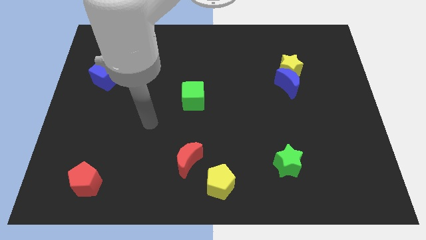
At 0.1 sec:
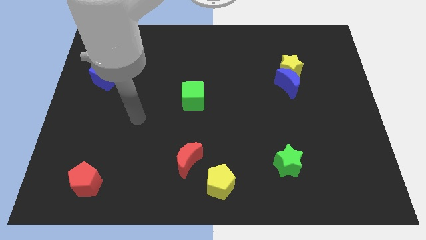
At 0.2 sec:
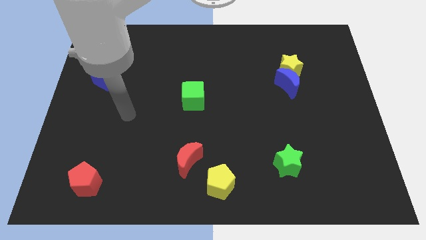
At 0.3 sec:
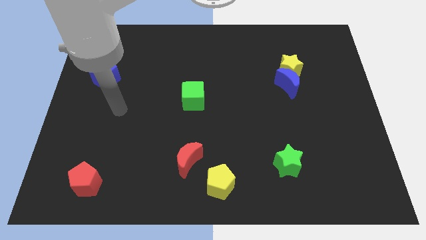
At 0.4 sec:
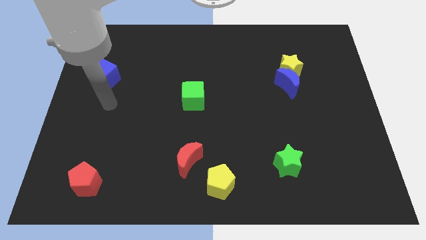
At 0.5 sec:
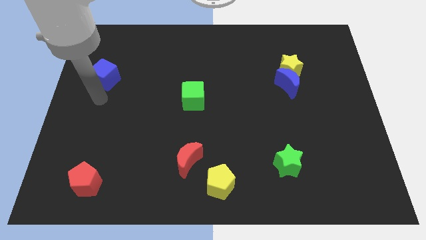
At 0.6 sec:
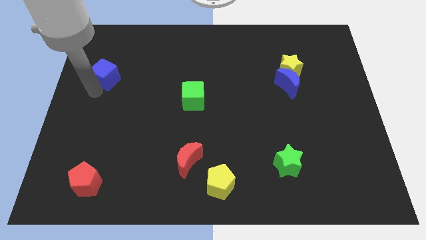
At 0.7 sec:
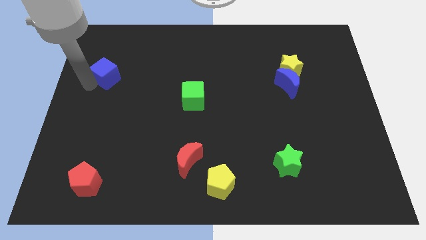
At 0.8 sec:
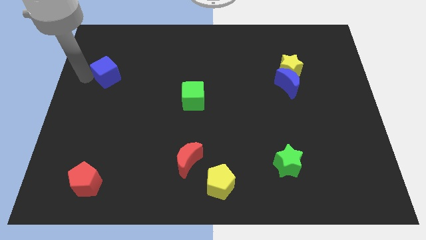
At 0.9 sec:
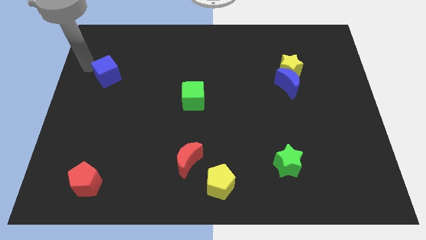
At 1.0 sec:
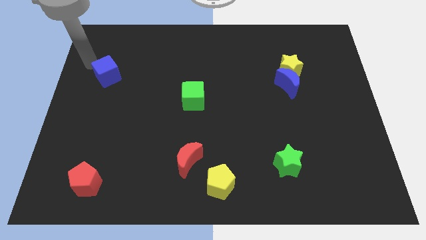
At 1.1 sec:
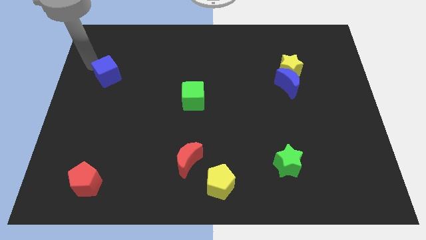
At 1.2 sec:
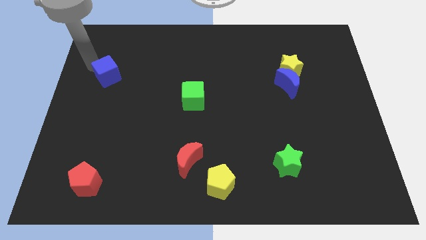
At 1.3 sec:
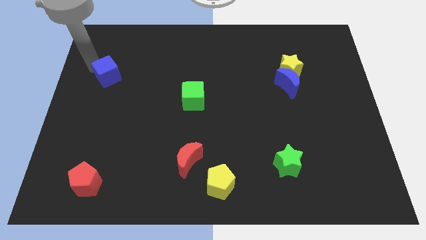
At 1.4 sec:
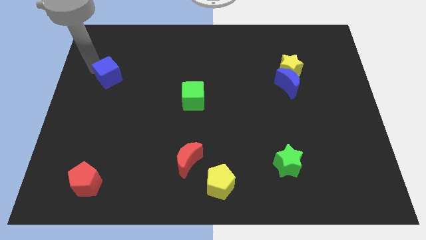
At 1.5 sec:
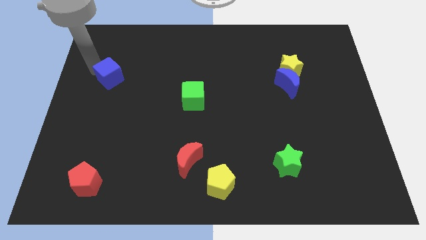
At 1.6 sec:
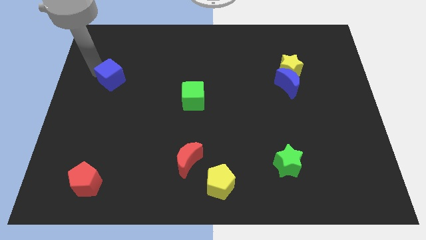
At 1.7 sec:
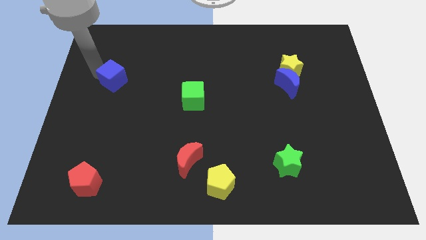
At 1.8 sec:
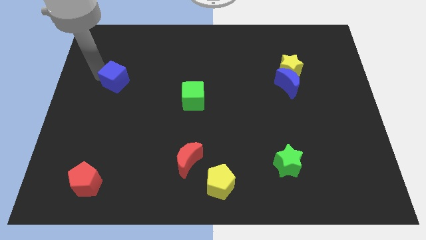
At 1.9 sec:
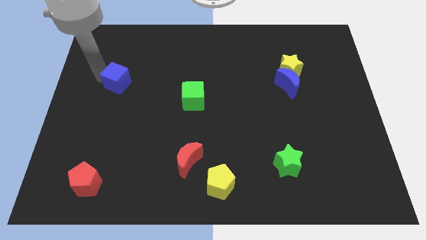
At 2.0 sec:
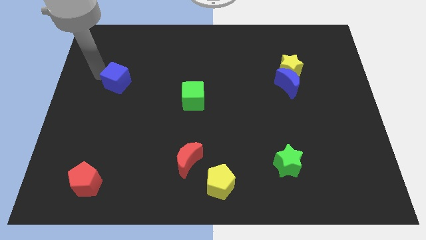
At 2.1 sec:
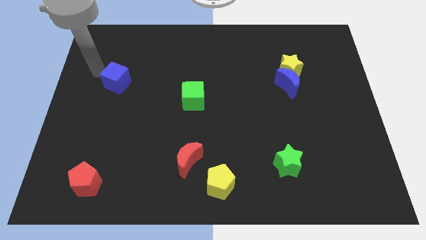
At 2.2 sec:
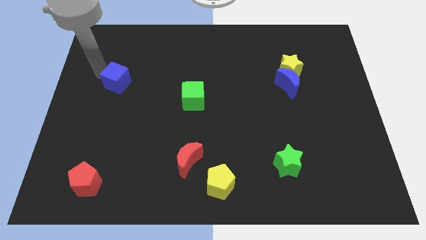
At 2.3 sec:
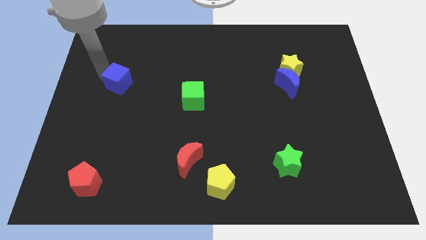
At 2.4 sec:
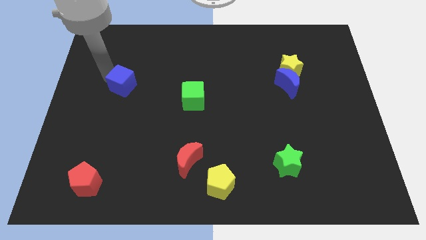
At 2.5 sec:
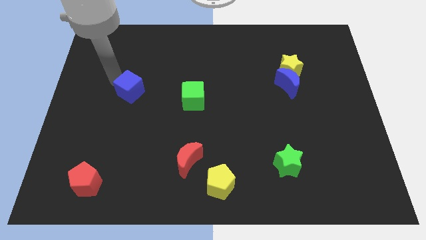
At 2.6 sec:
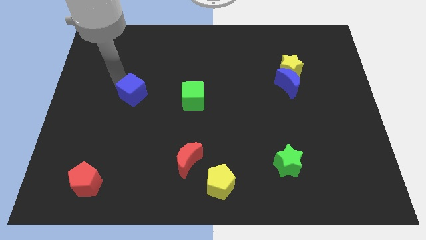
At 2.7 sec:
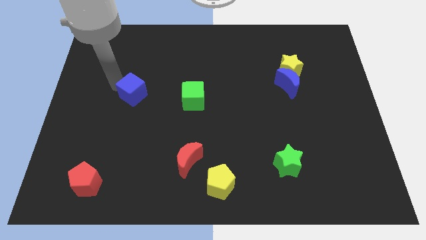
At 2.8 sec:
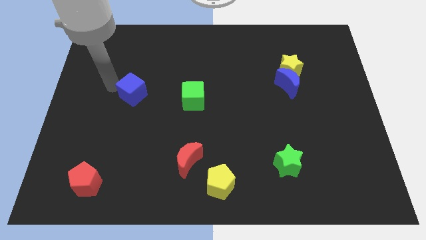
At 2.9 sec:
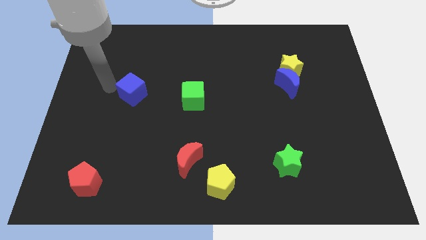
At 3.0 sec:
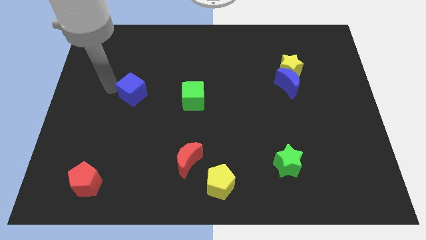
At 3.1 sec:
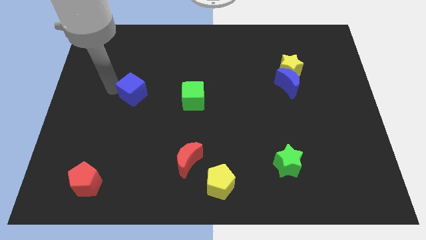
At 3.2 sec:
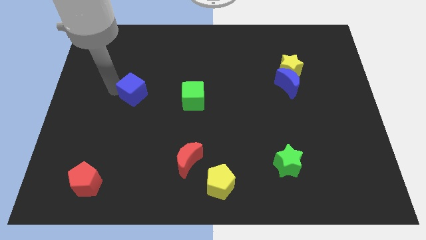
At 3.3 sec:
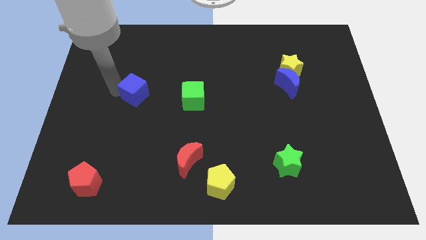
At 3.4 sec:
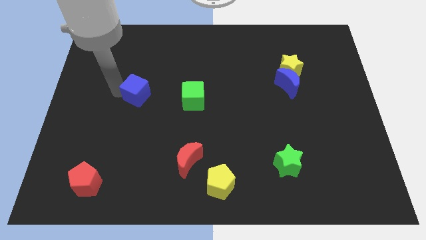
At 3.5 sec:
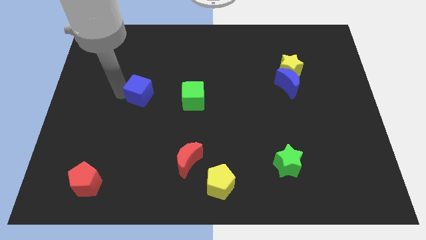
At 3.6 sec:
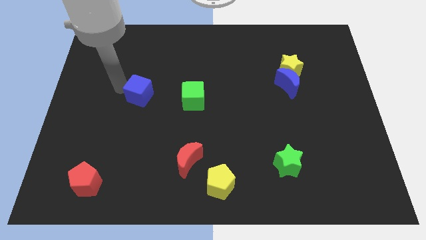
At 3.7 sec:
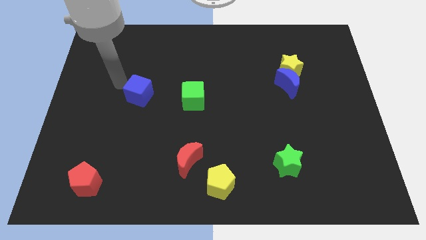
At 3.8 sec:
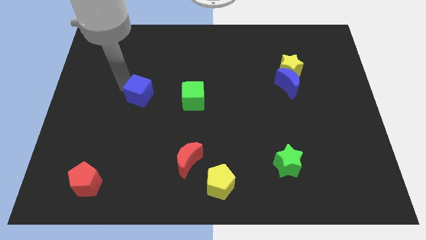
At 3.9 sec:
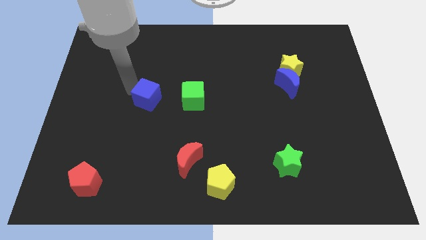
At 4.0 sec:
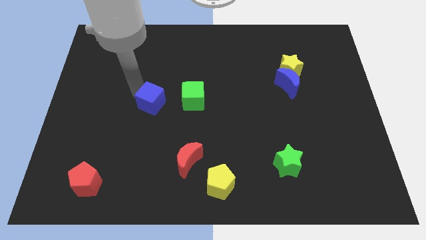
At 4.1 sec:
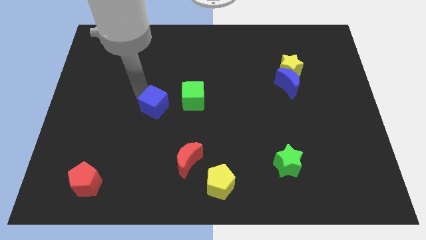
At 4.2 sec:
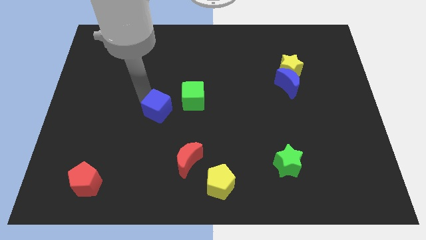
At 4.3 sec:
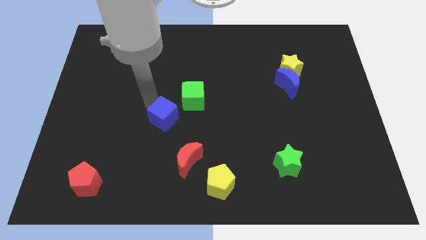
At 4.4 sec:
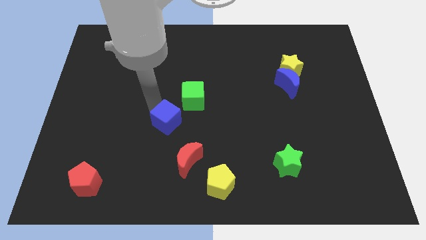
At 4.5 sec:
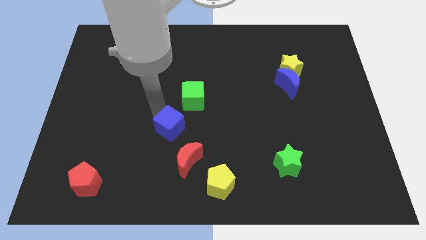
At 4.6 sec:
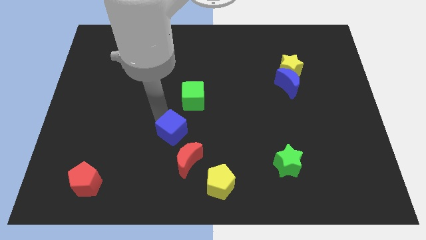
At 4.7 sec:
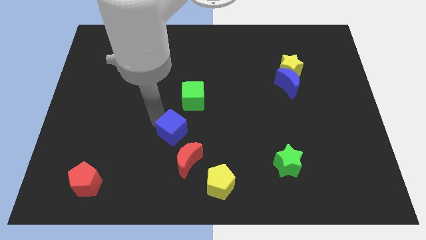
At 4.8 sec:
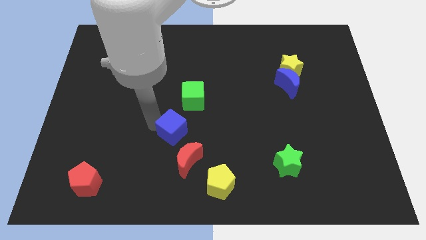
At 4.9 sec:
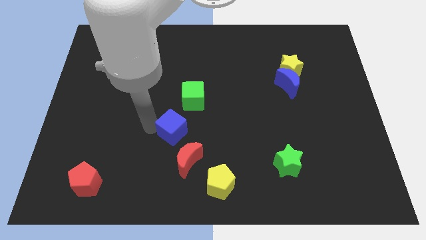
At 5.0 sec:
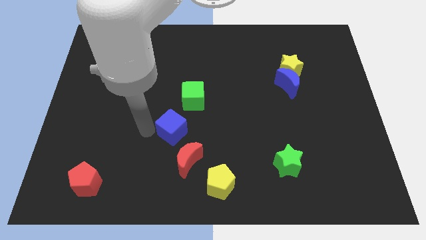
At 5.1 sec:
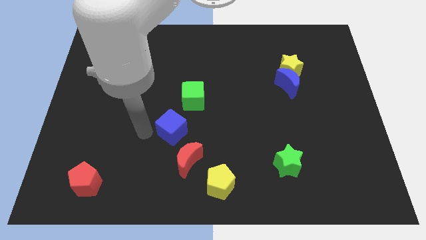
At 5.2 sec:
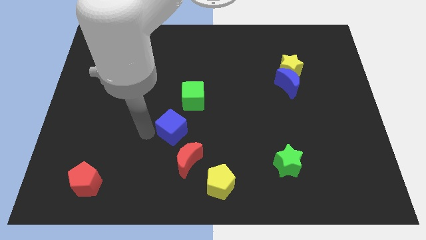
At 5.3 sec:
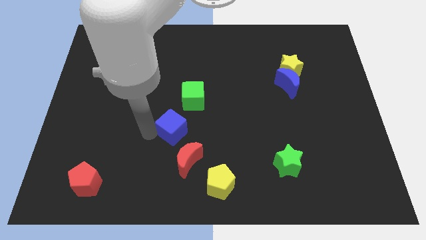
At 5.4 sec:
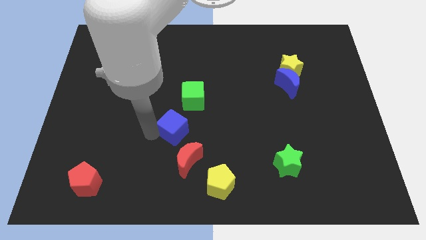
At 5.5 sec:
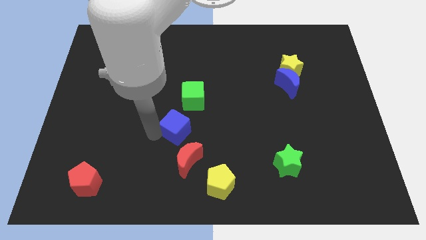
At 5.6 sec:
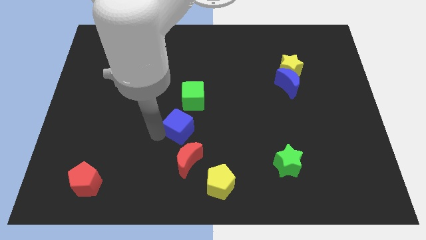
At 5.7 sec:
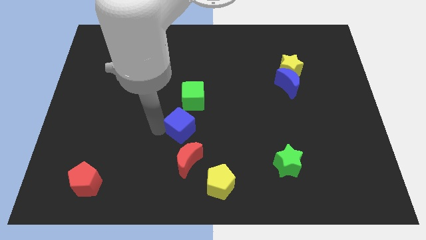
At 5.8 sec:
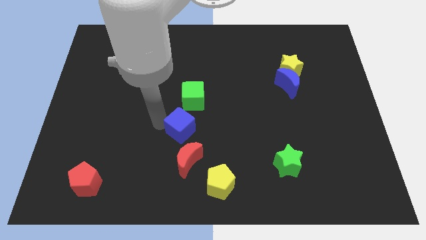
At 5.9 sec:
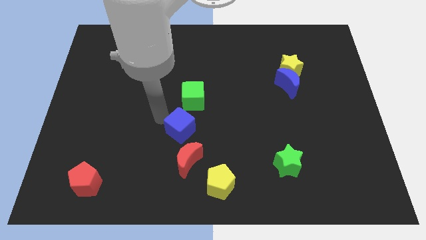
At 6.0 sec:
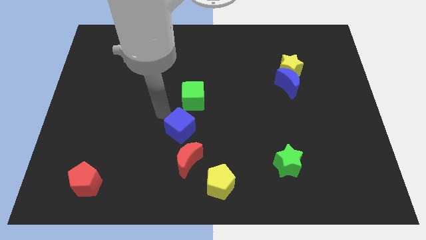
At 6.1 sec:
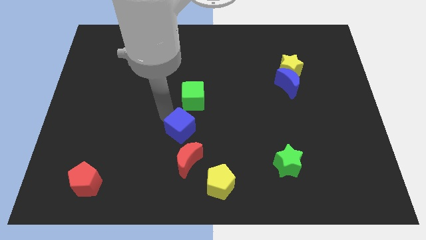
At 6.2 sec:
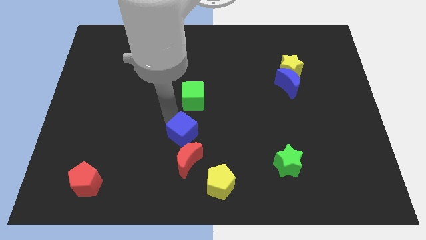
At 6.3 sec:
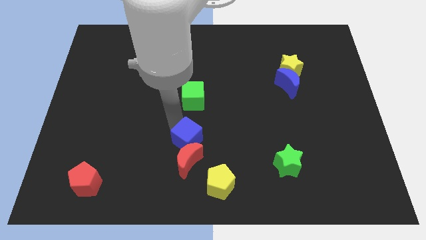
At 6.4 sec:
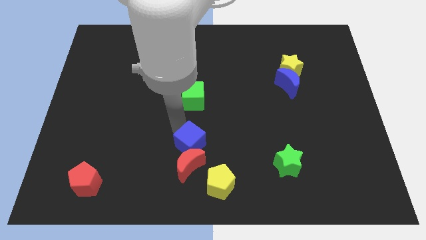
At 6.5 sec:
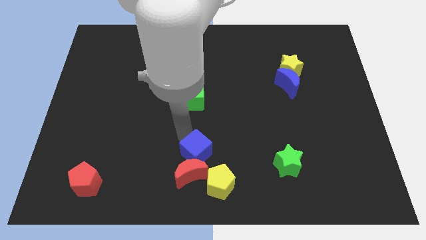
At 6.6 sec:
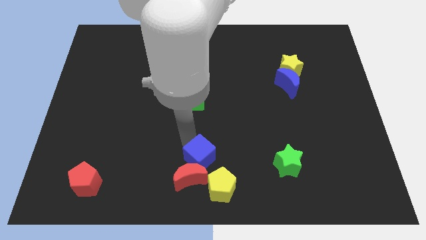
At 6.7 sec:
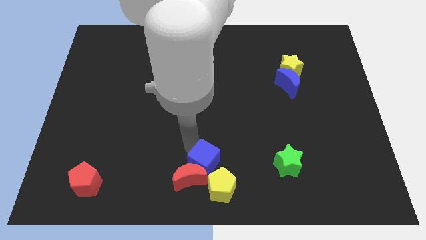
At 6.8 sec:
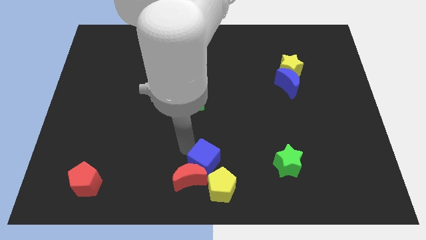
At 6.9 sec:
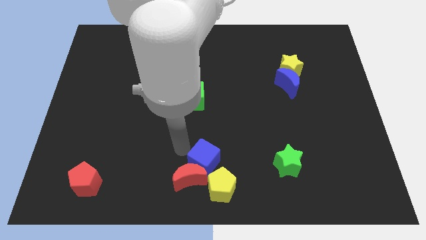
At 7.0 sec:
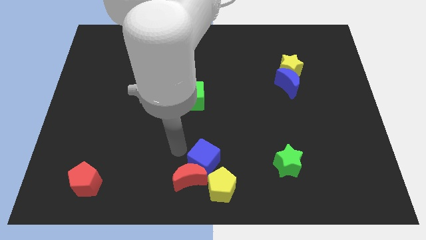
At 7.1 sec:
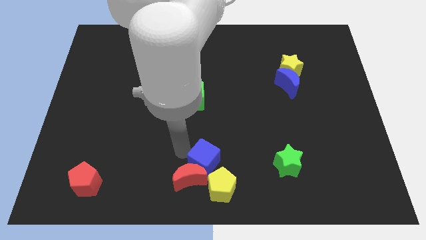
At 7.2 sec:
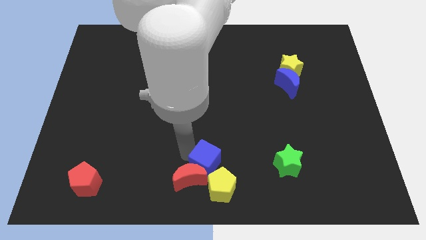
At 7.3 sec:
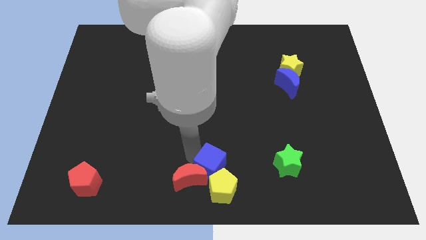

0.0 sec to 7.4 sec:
put the blue cube close to the yellow pentagon
